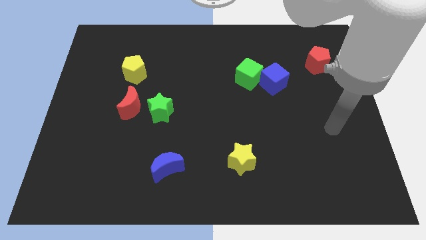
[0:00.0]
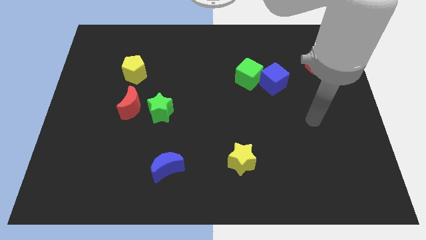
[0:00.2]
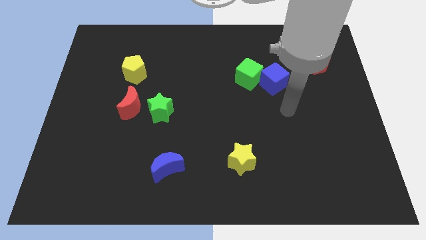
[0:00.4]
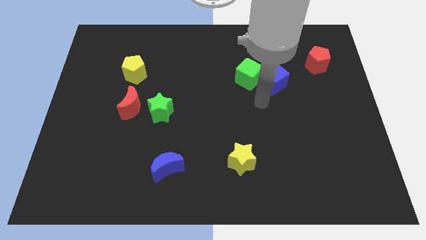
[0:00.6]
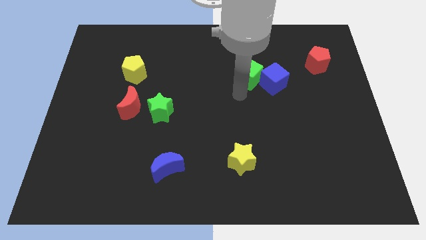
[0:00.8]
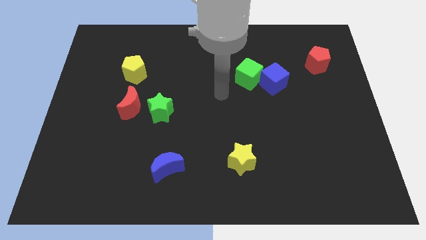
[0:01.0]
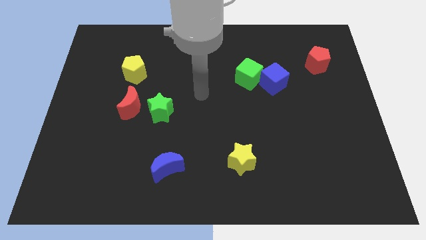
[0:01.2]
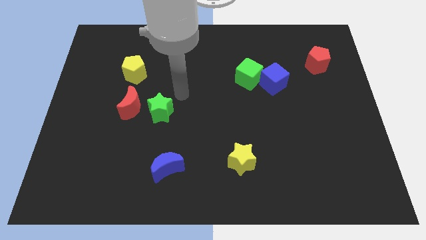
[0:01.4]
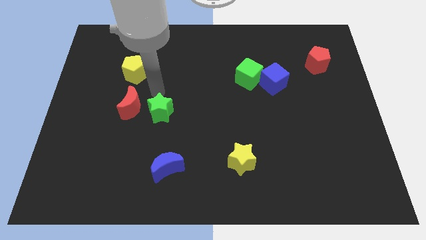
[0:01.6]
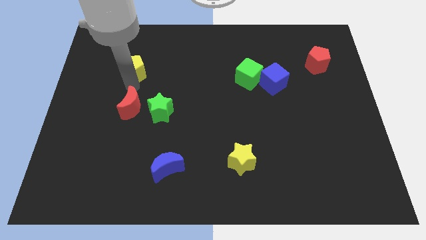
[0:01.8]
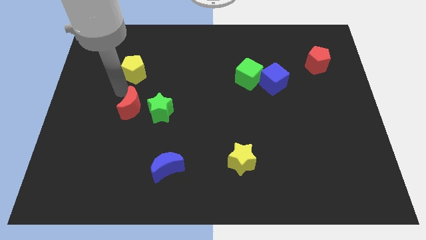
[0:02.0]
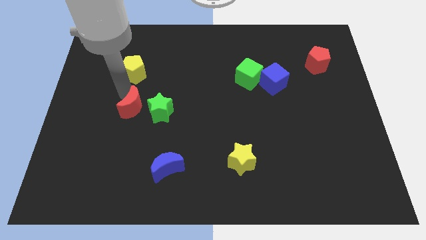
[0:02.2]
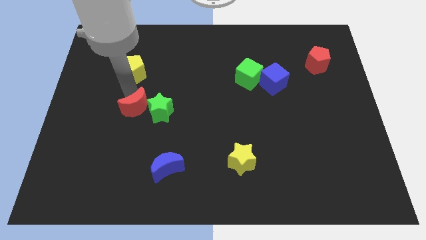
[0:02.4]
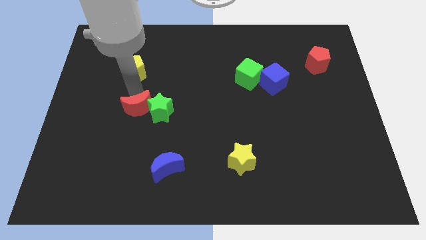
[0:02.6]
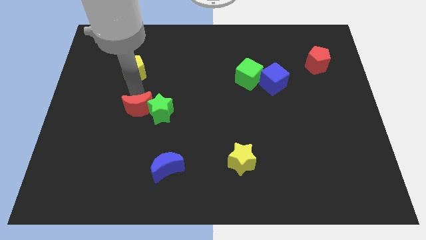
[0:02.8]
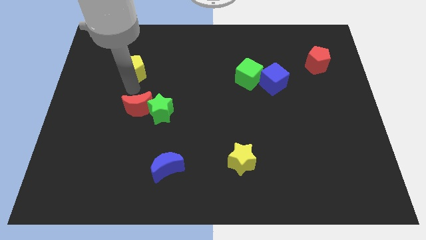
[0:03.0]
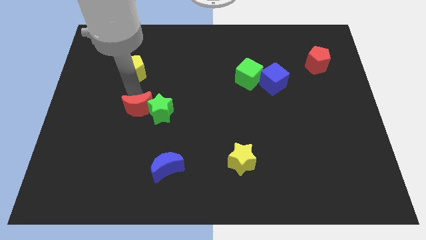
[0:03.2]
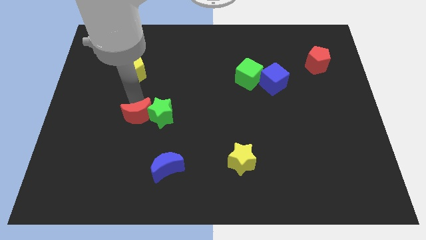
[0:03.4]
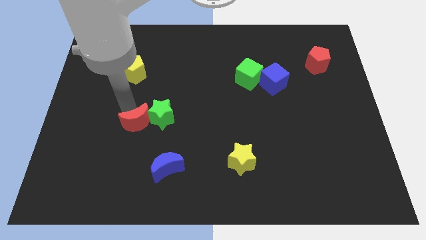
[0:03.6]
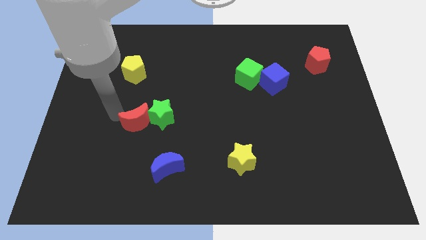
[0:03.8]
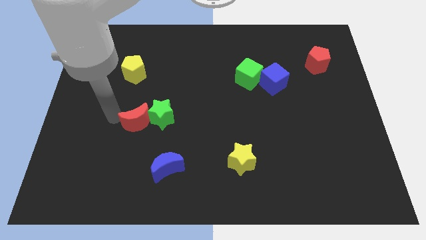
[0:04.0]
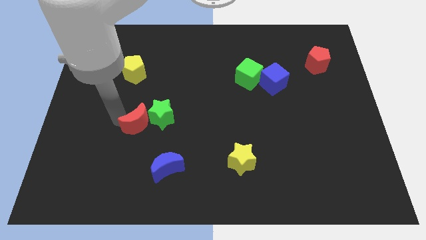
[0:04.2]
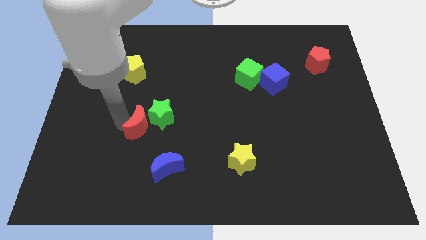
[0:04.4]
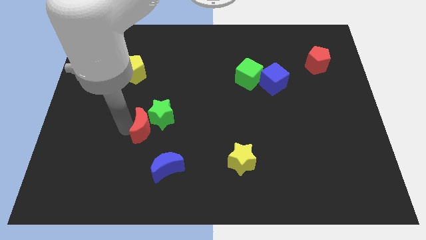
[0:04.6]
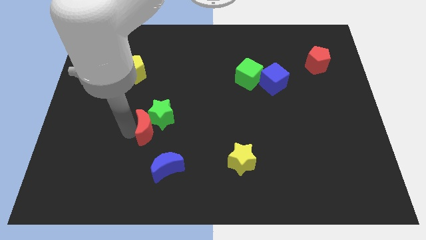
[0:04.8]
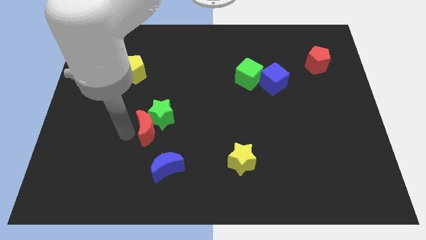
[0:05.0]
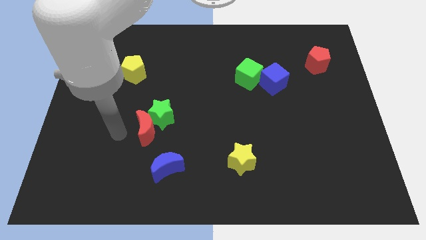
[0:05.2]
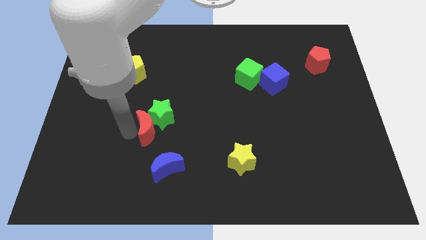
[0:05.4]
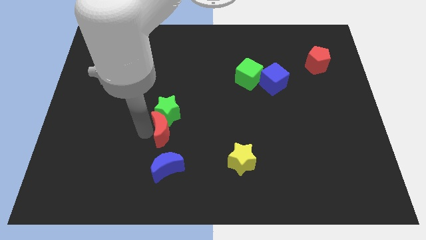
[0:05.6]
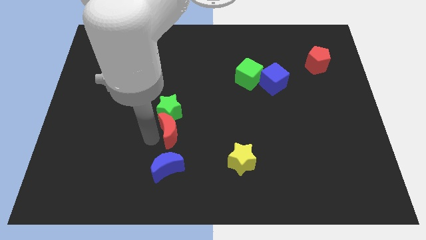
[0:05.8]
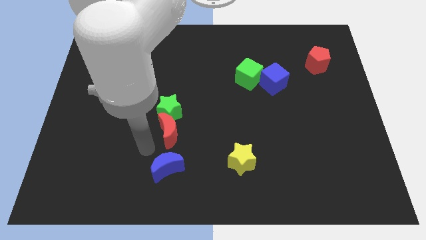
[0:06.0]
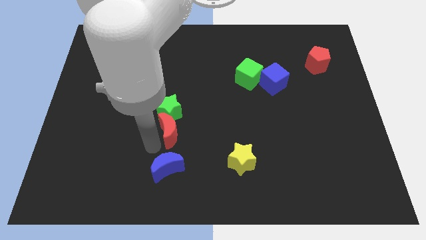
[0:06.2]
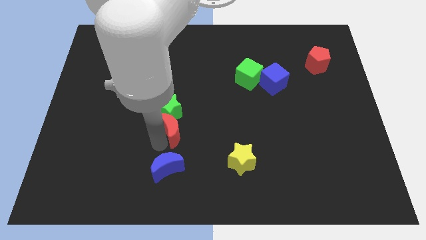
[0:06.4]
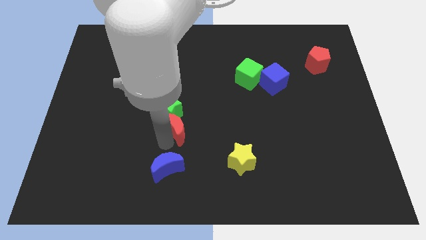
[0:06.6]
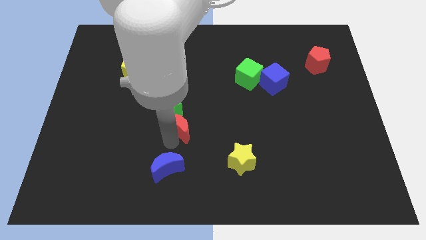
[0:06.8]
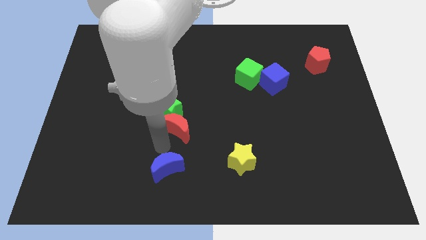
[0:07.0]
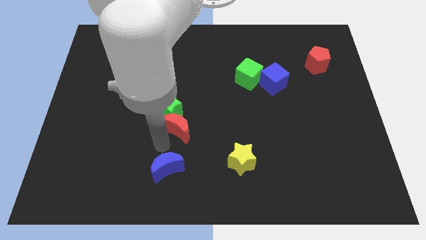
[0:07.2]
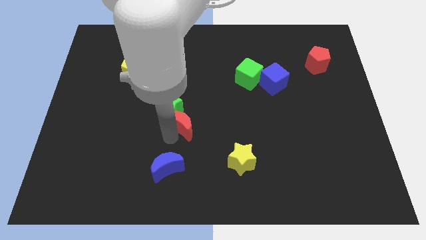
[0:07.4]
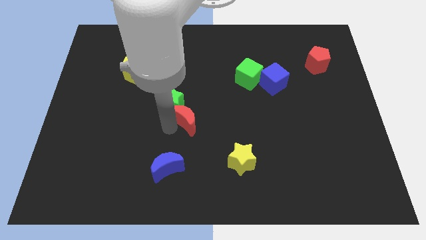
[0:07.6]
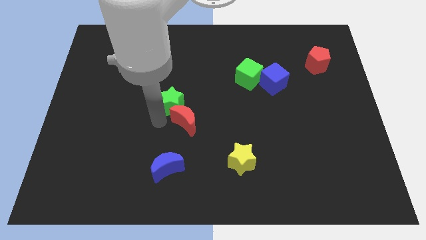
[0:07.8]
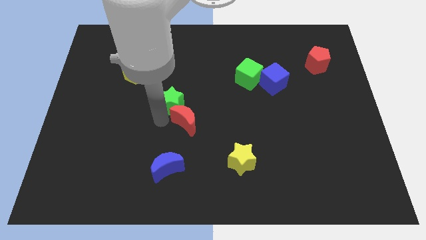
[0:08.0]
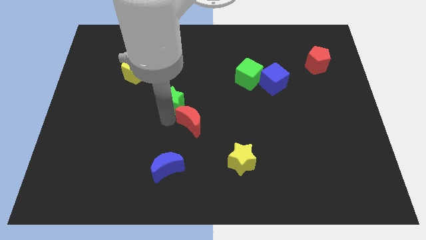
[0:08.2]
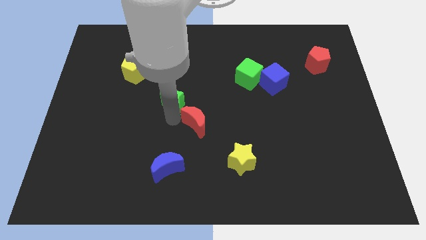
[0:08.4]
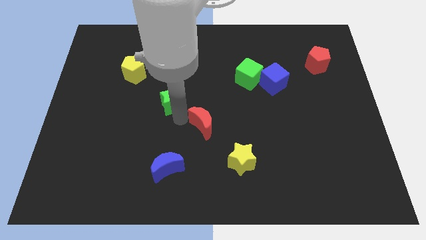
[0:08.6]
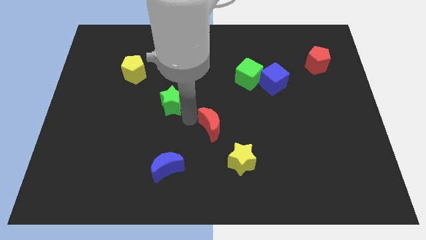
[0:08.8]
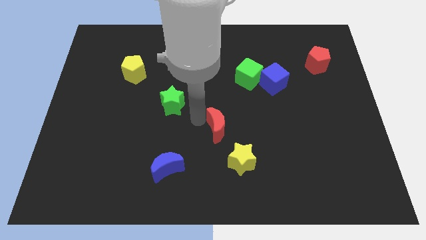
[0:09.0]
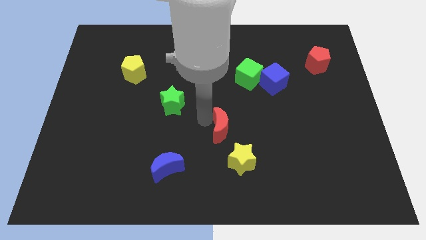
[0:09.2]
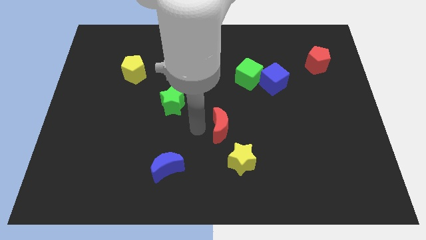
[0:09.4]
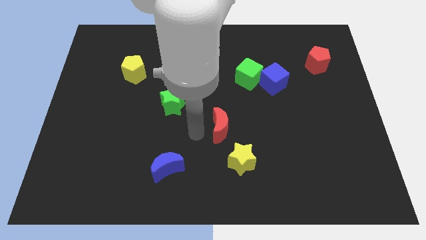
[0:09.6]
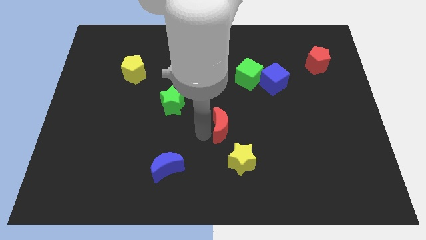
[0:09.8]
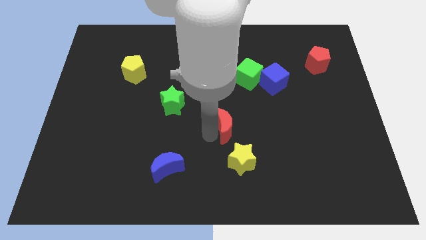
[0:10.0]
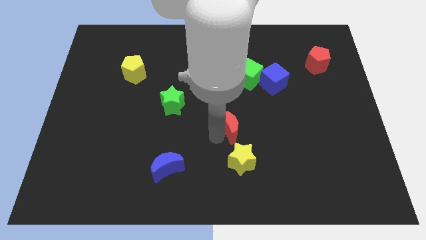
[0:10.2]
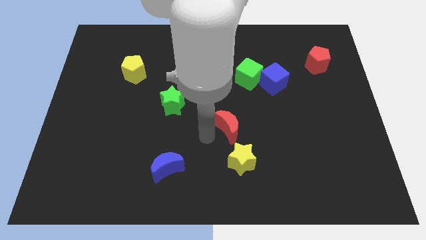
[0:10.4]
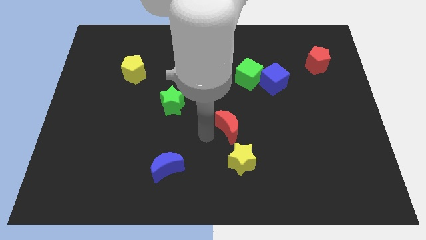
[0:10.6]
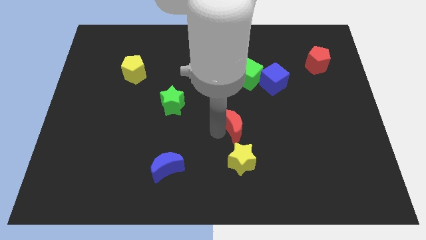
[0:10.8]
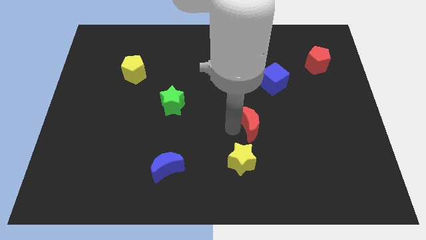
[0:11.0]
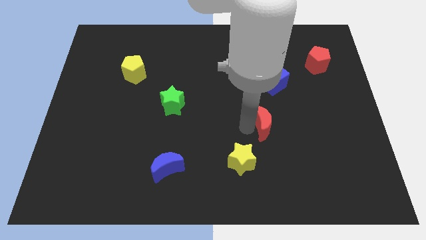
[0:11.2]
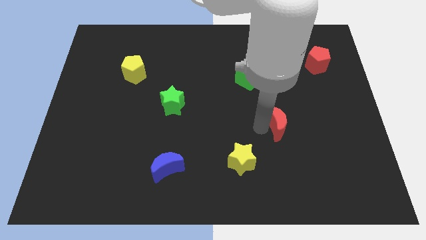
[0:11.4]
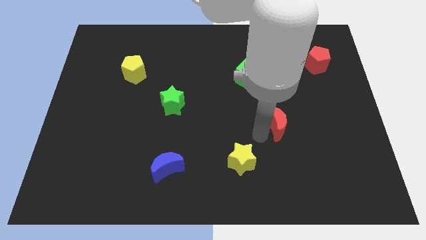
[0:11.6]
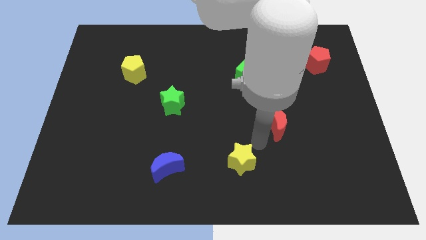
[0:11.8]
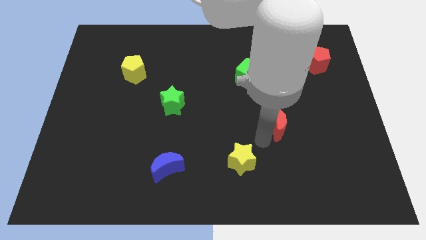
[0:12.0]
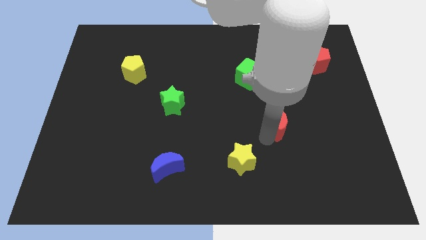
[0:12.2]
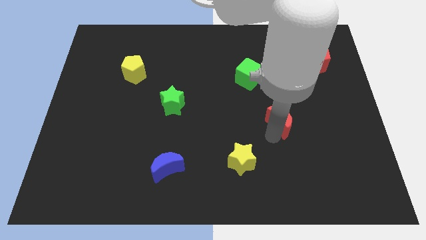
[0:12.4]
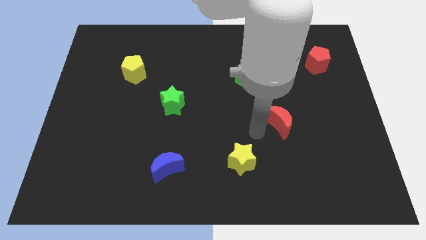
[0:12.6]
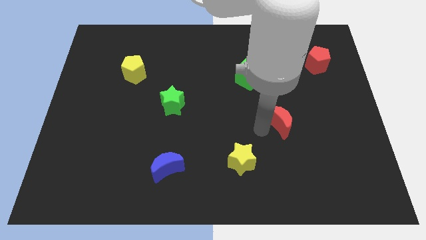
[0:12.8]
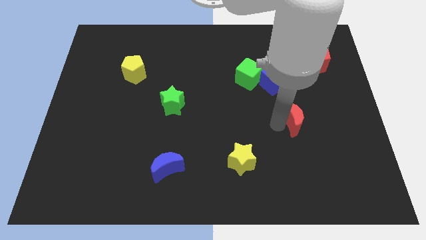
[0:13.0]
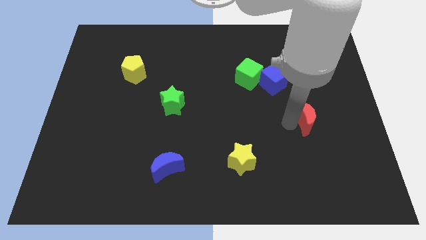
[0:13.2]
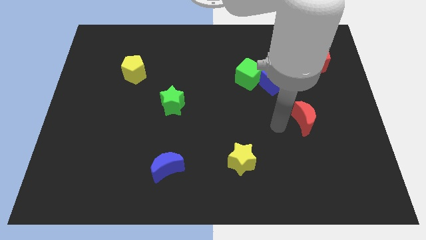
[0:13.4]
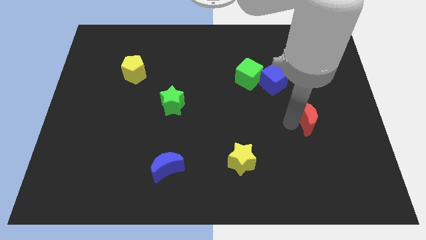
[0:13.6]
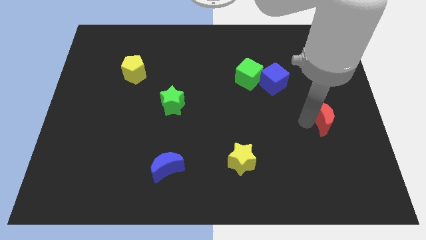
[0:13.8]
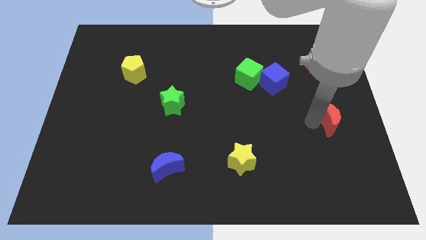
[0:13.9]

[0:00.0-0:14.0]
push the red moon to the center right
